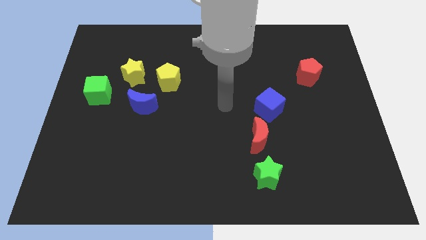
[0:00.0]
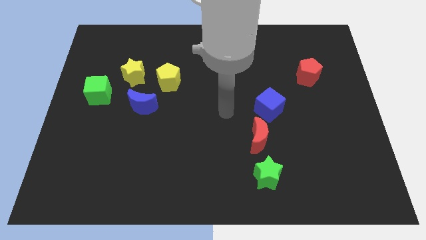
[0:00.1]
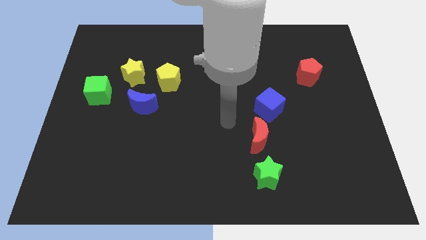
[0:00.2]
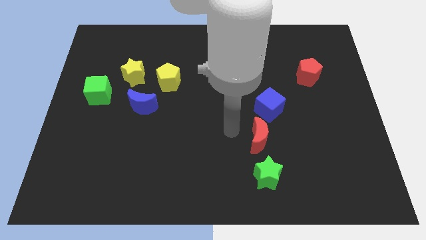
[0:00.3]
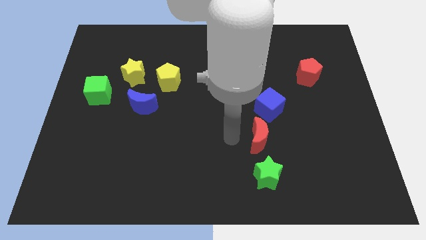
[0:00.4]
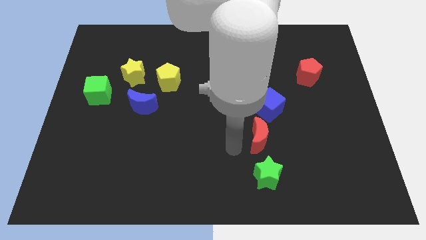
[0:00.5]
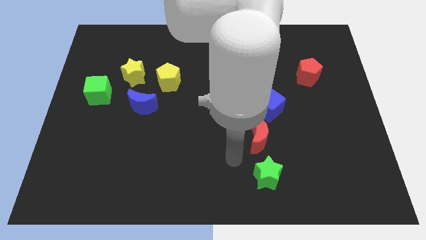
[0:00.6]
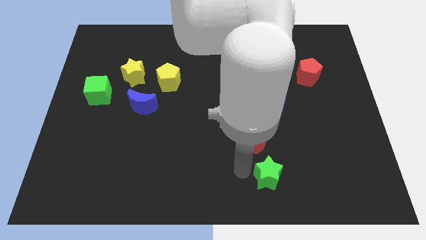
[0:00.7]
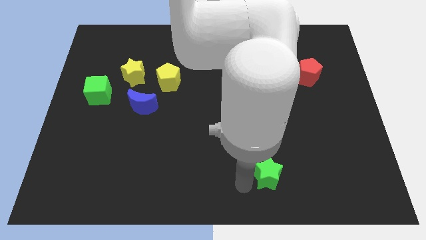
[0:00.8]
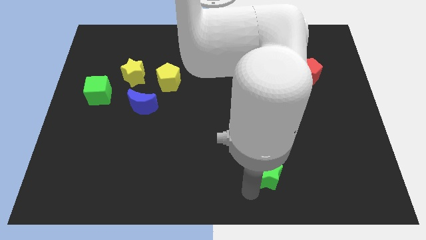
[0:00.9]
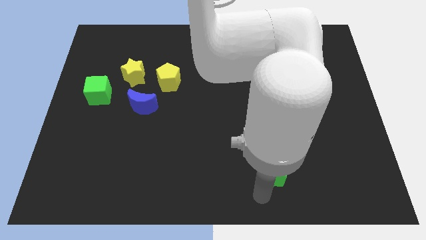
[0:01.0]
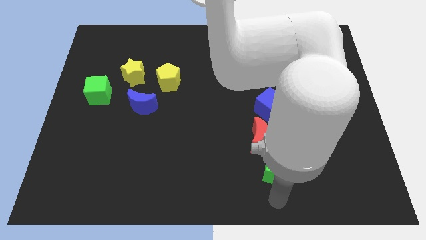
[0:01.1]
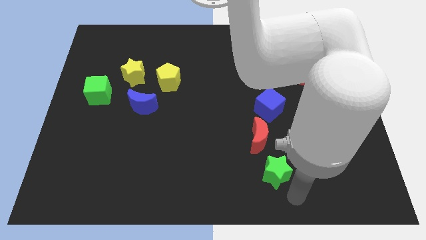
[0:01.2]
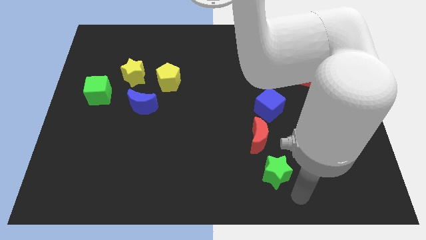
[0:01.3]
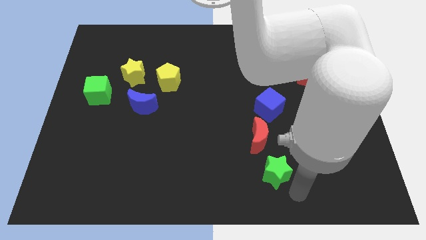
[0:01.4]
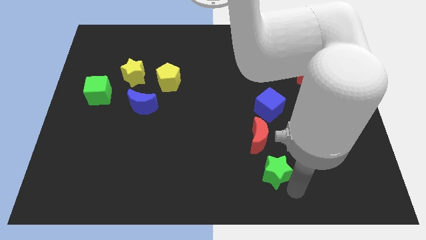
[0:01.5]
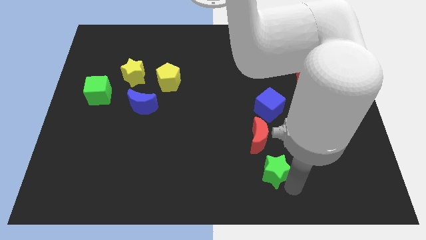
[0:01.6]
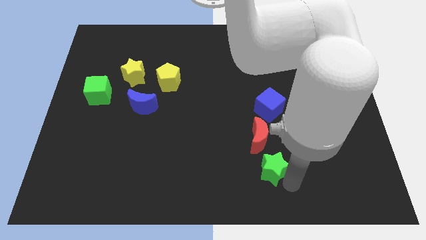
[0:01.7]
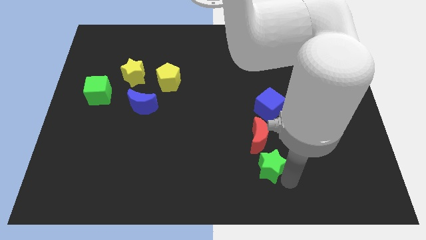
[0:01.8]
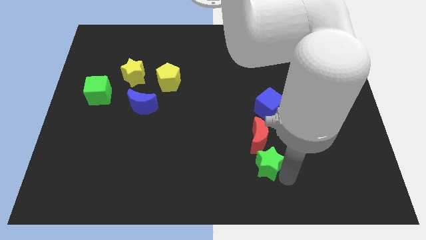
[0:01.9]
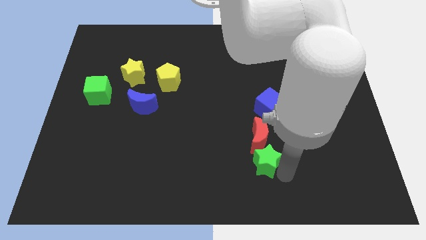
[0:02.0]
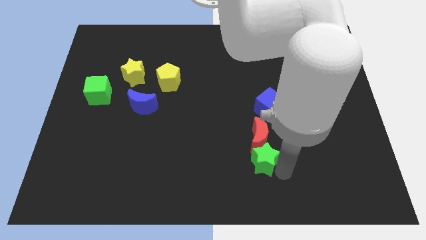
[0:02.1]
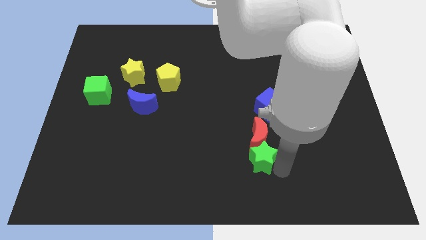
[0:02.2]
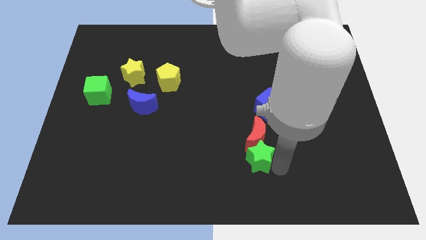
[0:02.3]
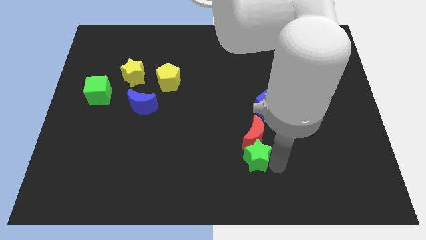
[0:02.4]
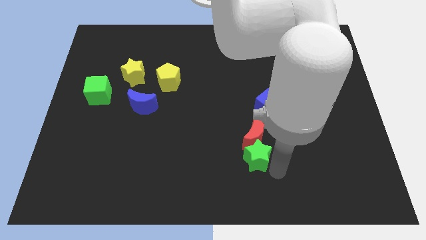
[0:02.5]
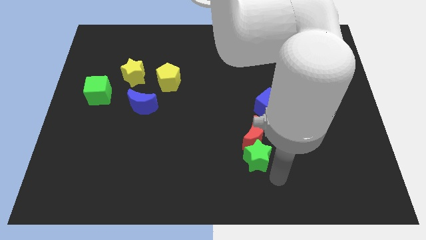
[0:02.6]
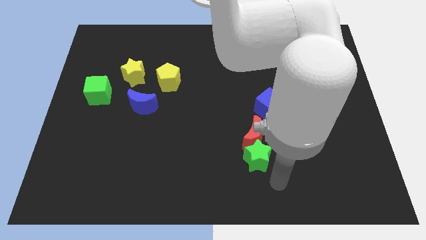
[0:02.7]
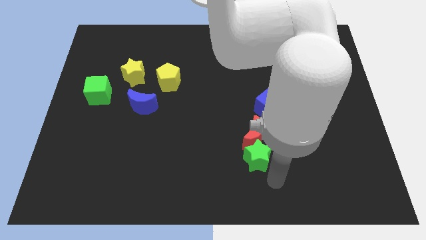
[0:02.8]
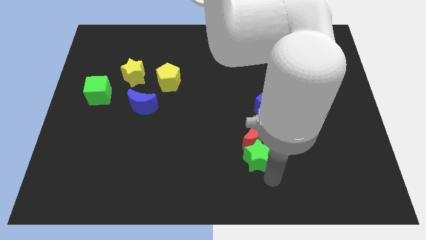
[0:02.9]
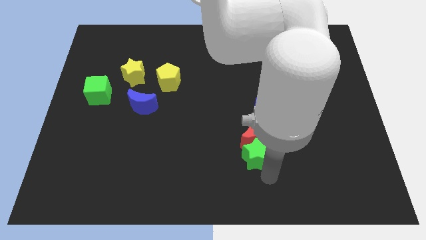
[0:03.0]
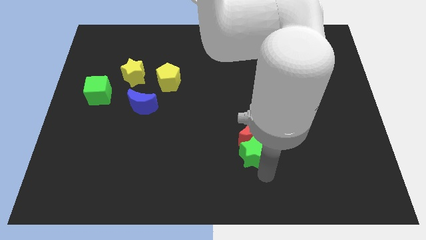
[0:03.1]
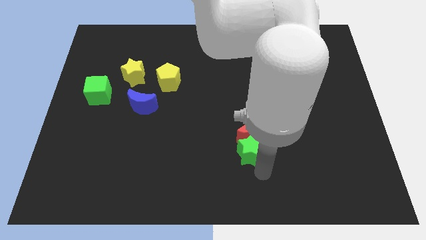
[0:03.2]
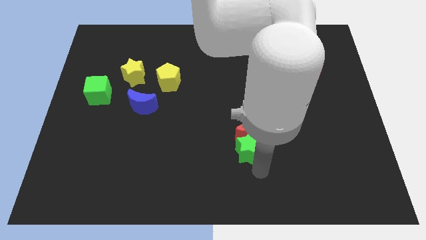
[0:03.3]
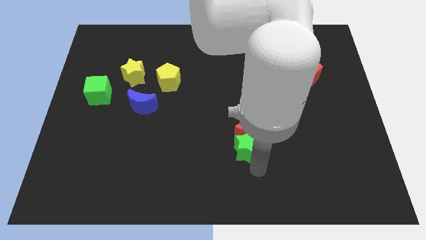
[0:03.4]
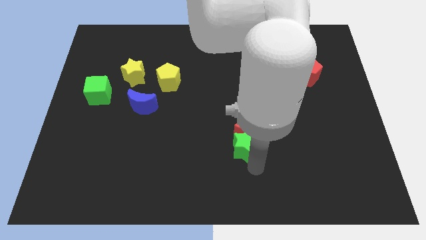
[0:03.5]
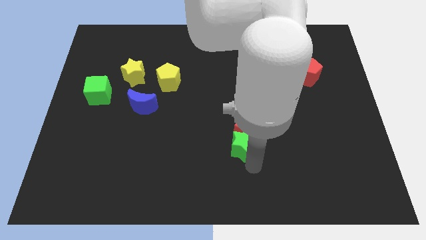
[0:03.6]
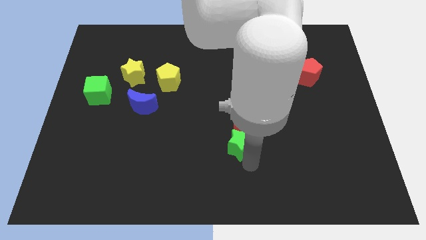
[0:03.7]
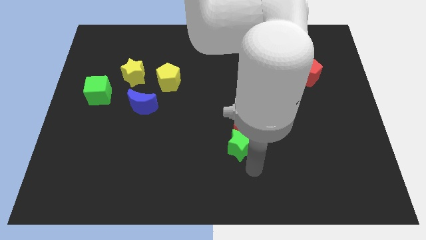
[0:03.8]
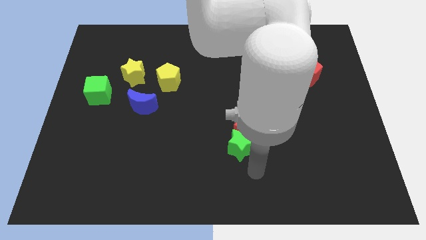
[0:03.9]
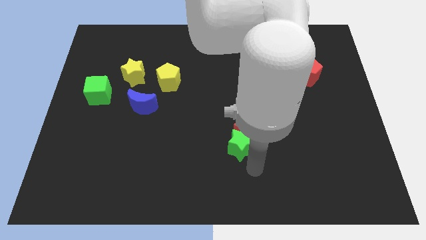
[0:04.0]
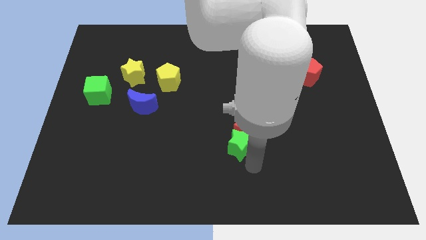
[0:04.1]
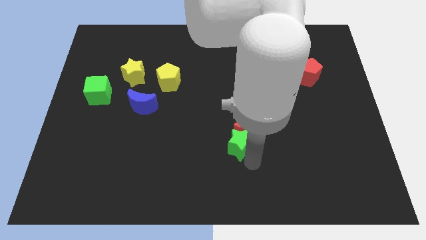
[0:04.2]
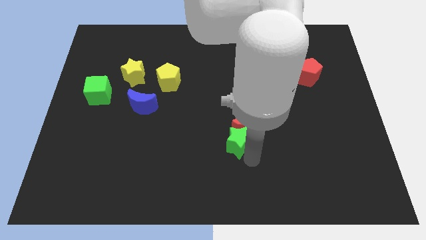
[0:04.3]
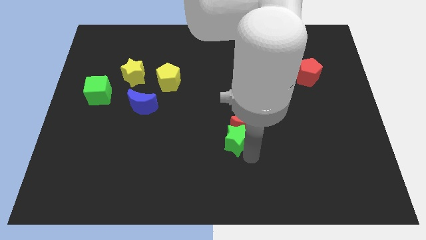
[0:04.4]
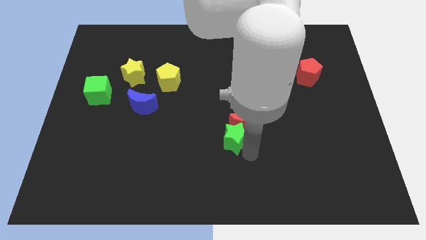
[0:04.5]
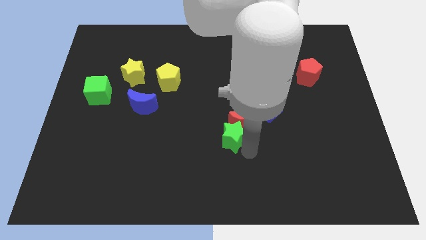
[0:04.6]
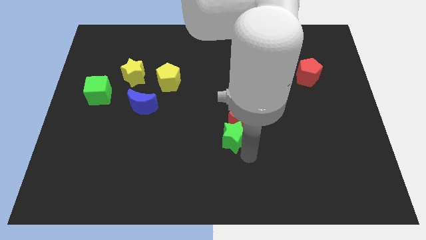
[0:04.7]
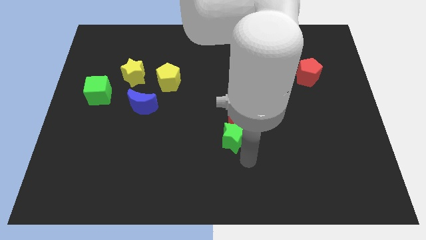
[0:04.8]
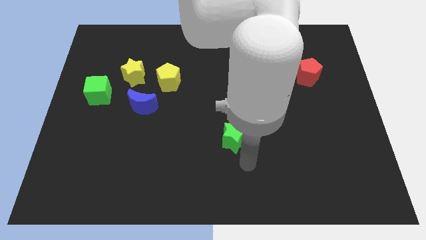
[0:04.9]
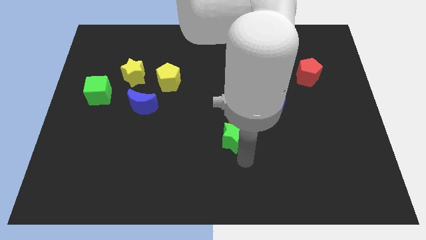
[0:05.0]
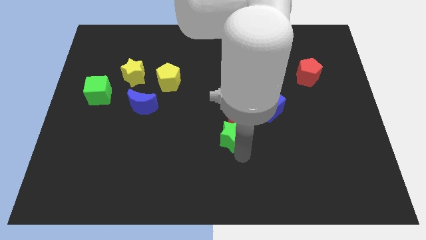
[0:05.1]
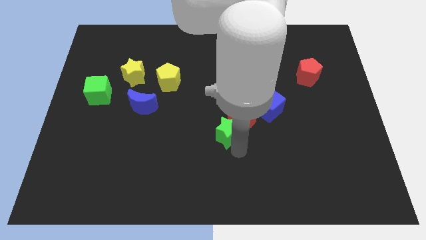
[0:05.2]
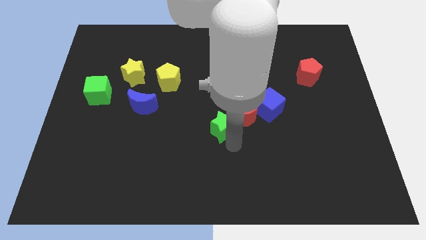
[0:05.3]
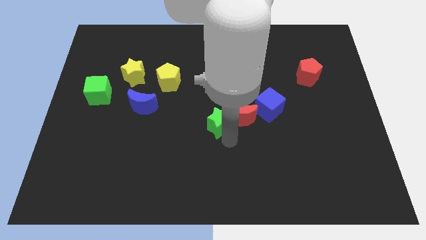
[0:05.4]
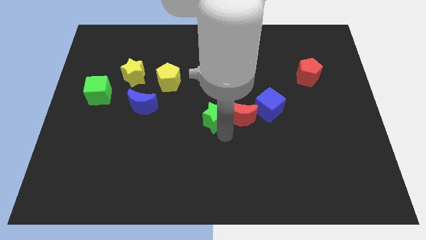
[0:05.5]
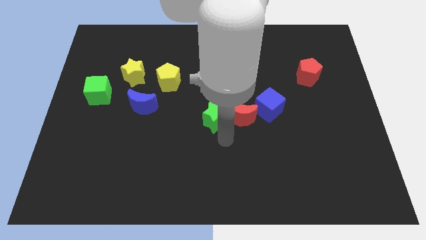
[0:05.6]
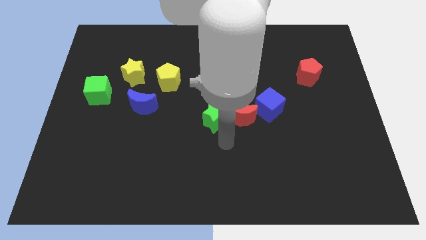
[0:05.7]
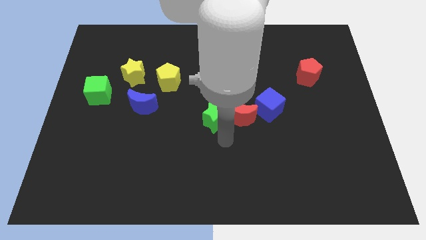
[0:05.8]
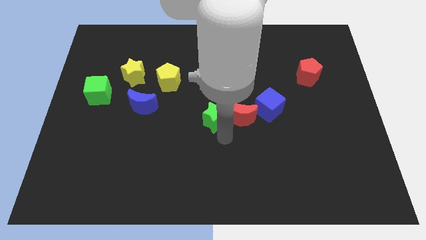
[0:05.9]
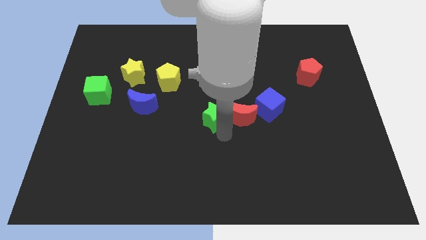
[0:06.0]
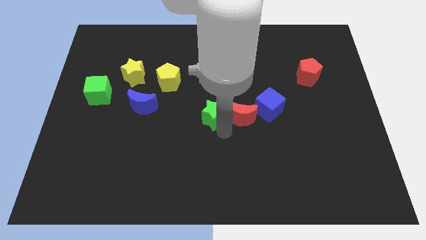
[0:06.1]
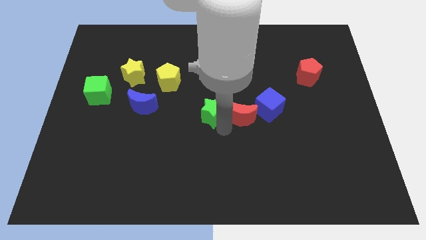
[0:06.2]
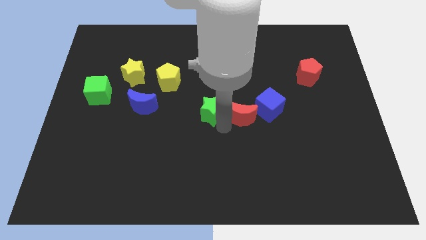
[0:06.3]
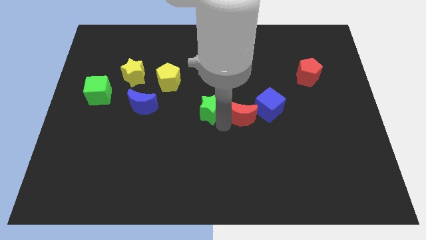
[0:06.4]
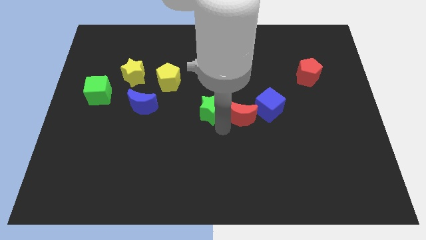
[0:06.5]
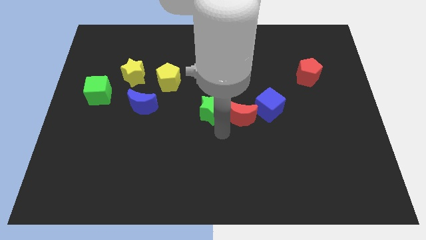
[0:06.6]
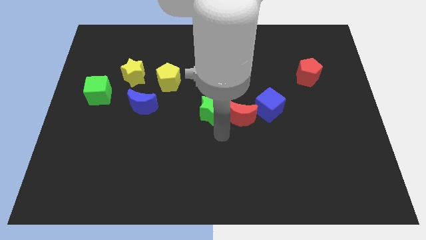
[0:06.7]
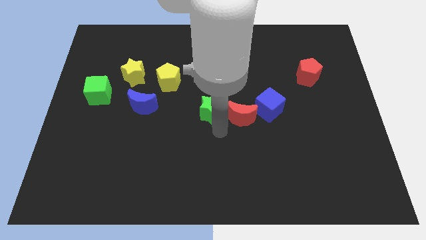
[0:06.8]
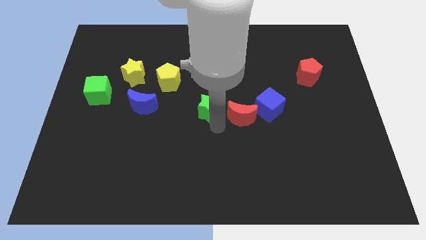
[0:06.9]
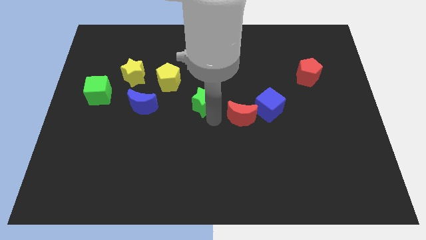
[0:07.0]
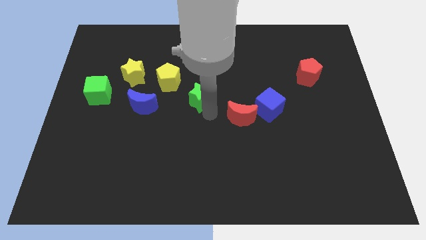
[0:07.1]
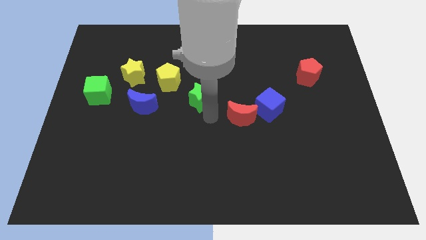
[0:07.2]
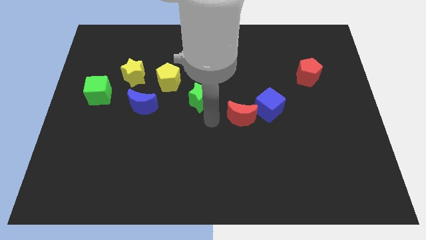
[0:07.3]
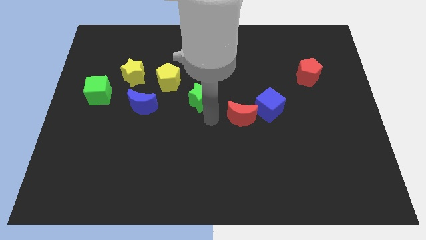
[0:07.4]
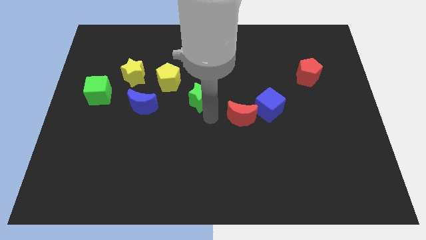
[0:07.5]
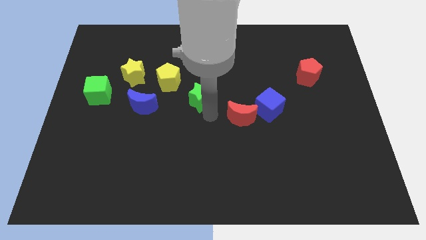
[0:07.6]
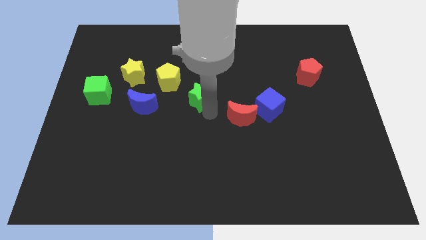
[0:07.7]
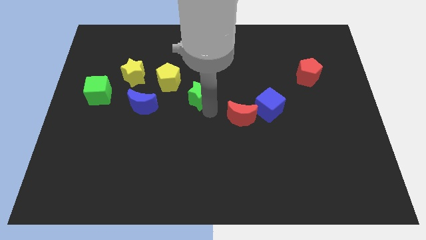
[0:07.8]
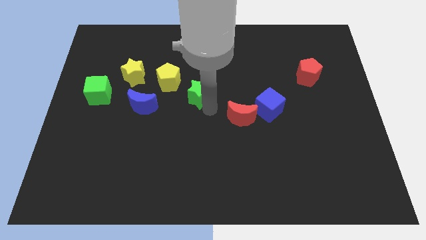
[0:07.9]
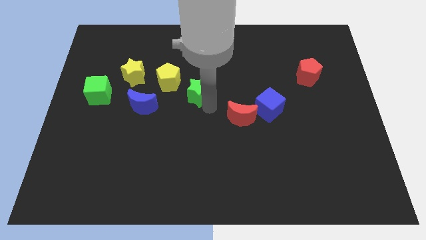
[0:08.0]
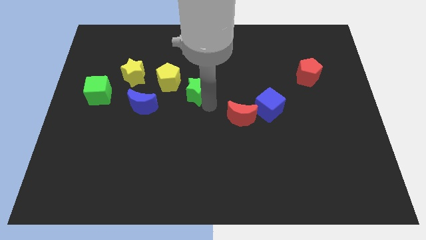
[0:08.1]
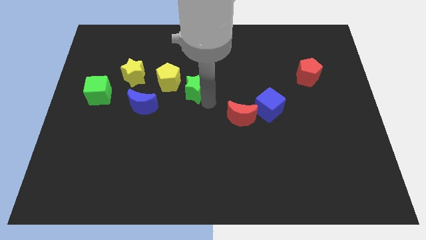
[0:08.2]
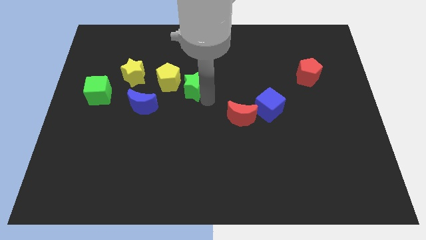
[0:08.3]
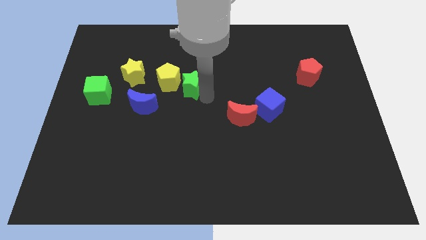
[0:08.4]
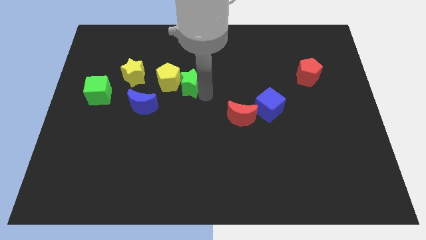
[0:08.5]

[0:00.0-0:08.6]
put the green star to the right side of the yellow star
